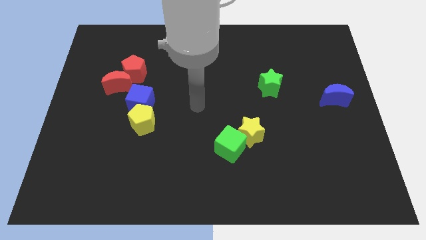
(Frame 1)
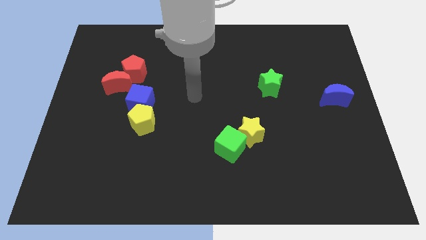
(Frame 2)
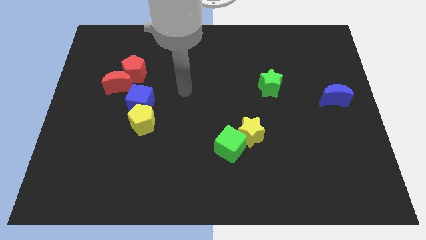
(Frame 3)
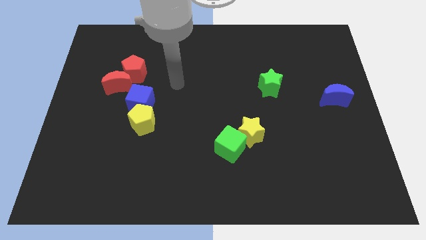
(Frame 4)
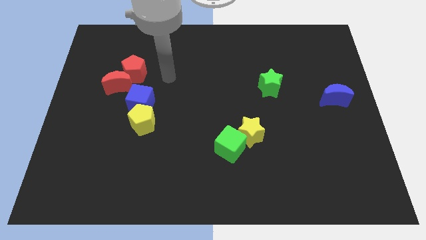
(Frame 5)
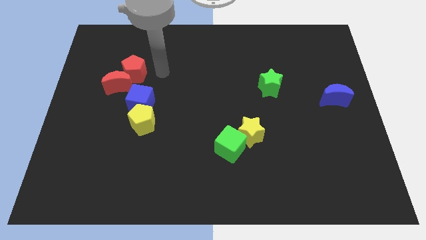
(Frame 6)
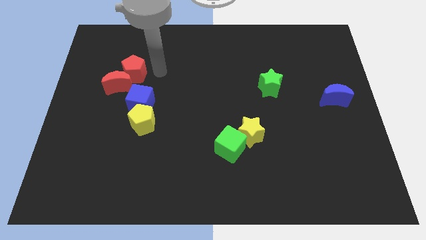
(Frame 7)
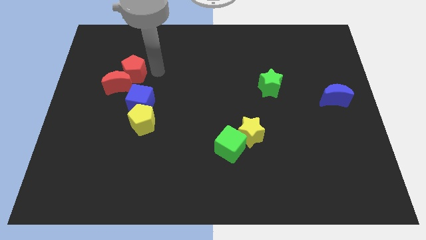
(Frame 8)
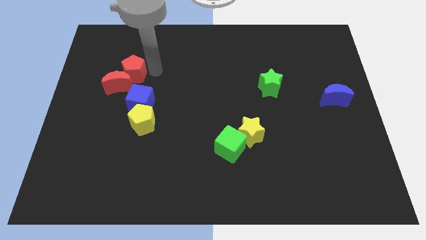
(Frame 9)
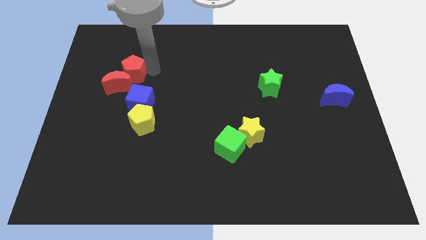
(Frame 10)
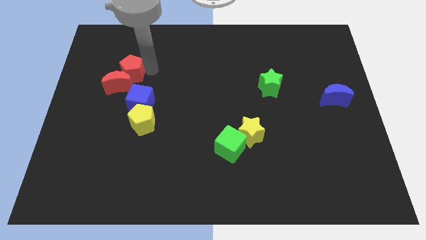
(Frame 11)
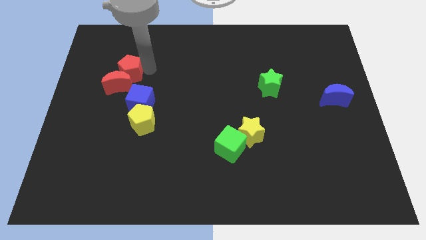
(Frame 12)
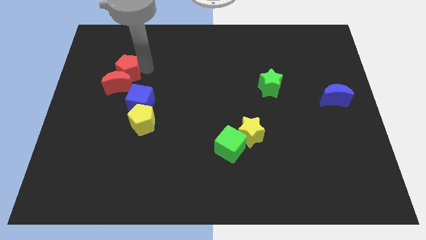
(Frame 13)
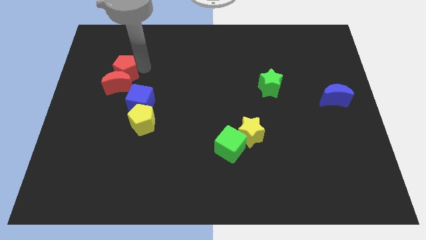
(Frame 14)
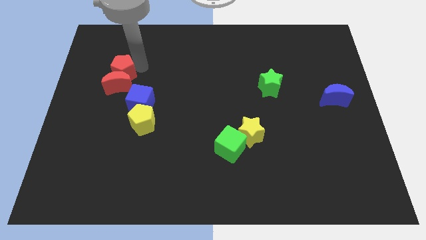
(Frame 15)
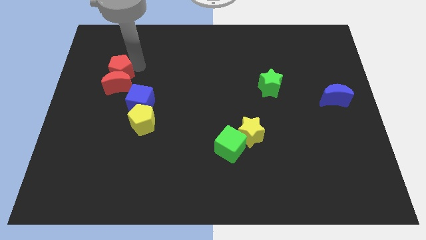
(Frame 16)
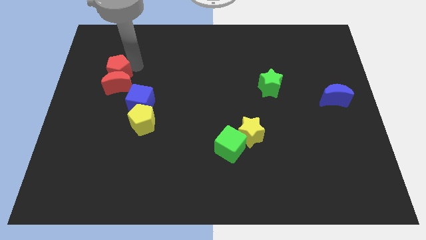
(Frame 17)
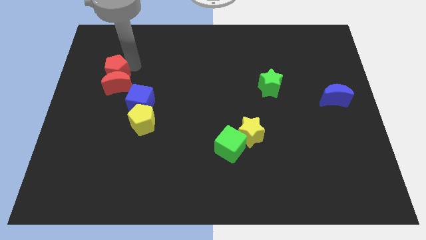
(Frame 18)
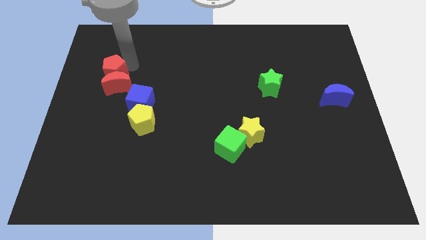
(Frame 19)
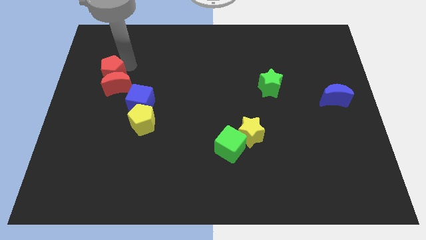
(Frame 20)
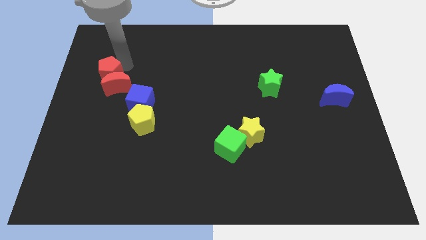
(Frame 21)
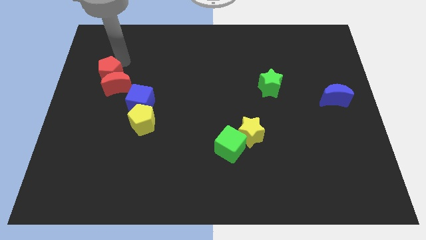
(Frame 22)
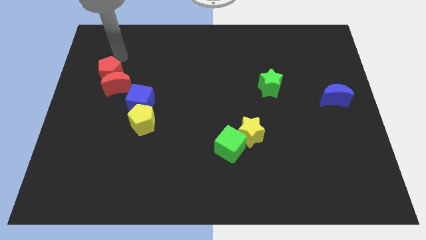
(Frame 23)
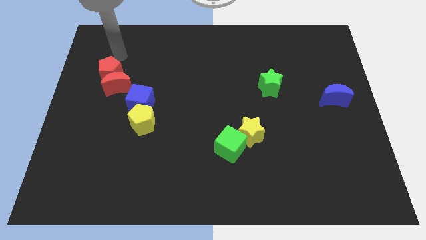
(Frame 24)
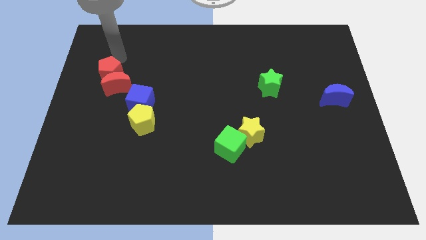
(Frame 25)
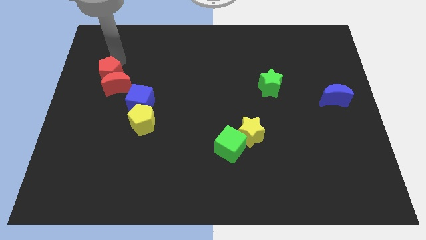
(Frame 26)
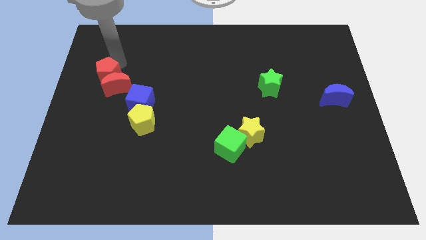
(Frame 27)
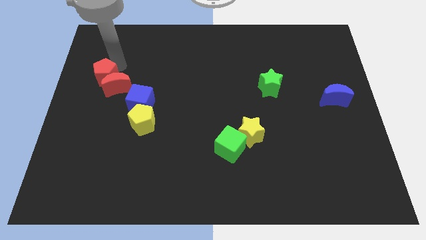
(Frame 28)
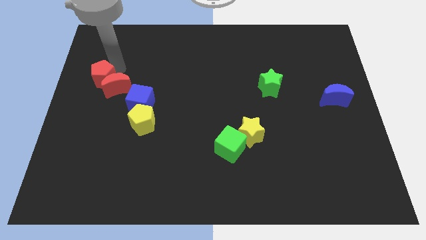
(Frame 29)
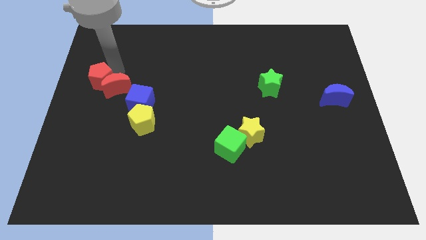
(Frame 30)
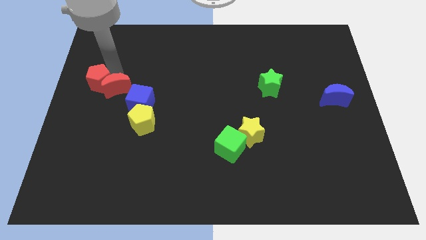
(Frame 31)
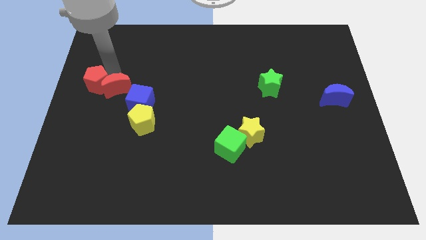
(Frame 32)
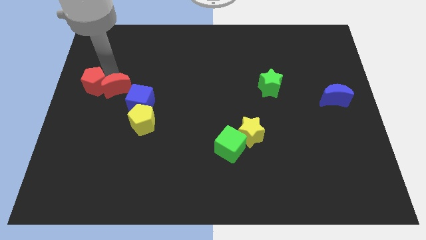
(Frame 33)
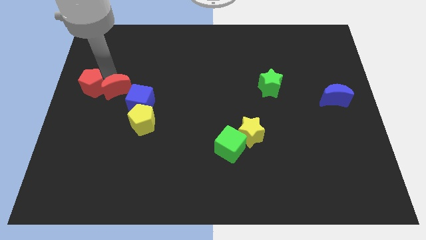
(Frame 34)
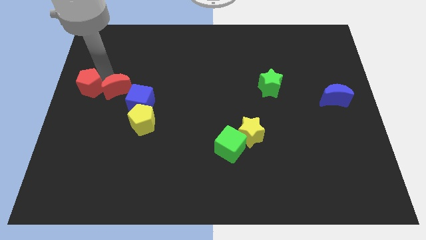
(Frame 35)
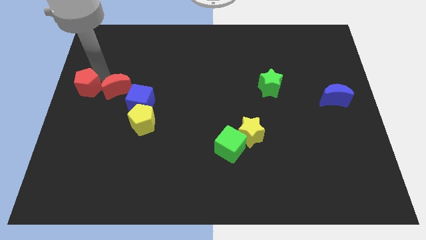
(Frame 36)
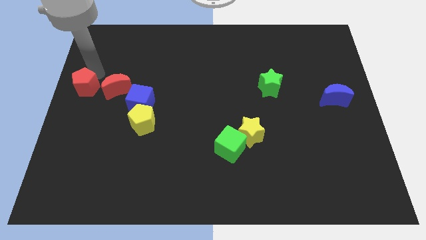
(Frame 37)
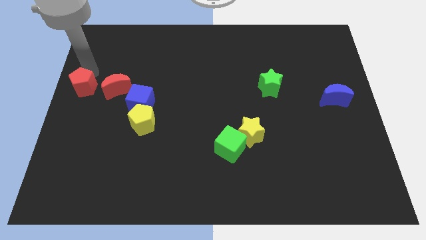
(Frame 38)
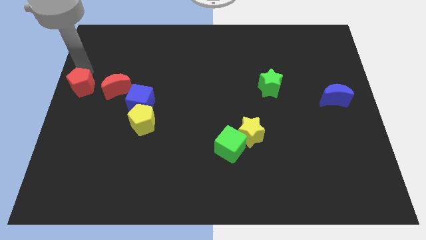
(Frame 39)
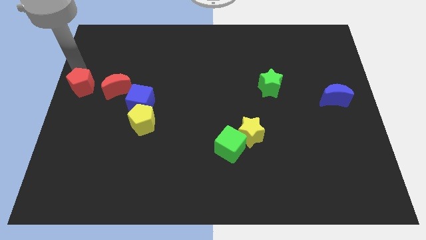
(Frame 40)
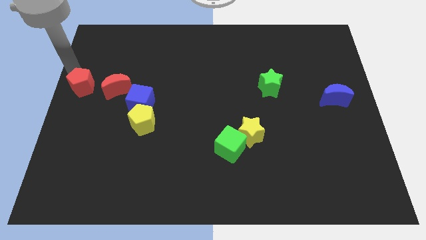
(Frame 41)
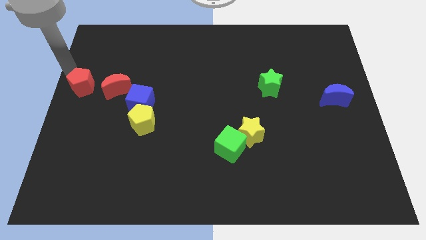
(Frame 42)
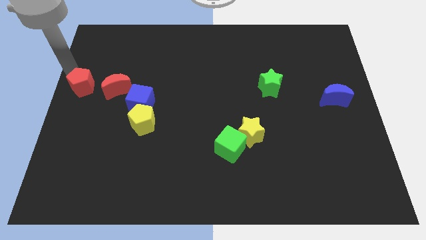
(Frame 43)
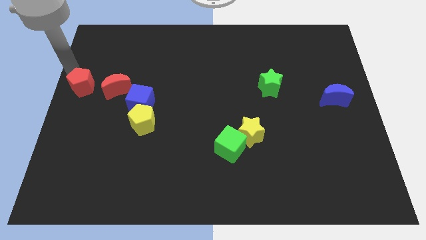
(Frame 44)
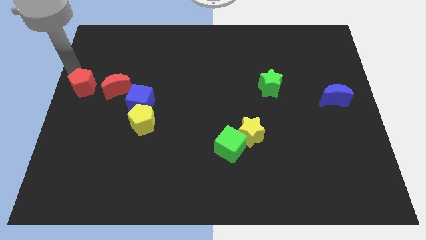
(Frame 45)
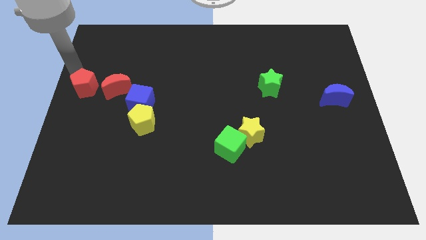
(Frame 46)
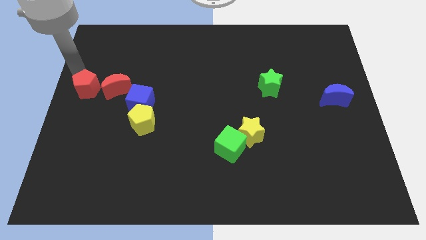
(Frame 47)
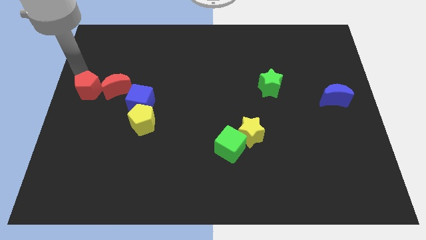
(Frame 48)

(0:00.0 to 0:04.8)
put the red pentagon just left of the blue cube

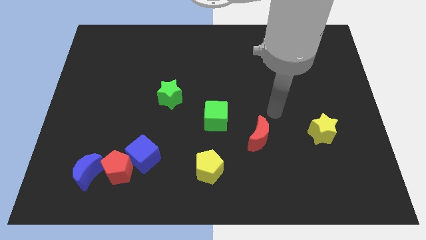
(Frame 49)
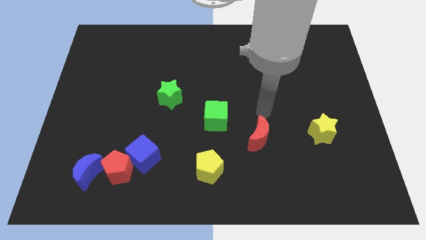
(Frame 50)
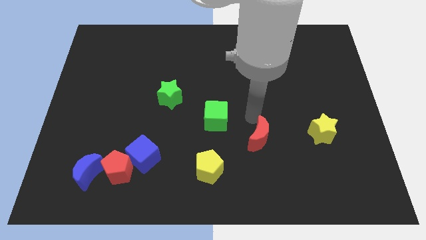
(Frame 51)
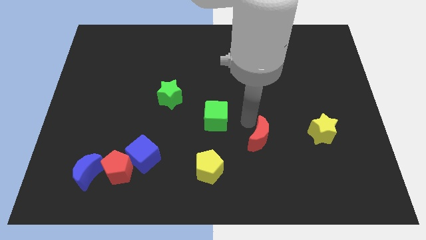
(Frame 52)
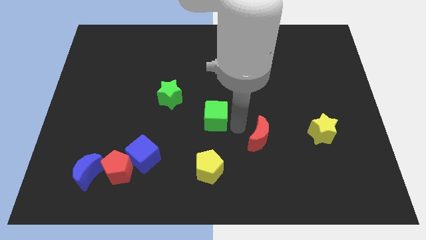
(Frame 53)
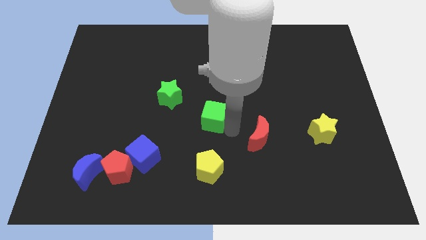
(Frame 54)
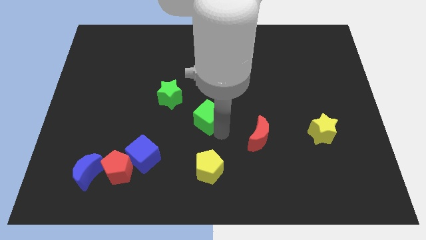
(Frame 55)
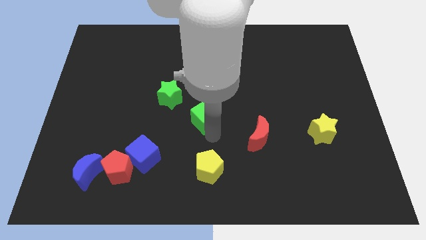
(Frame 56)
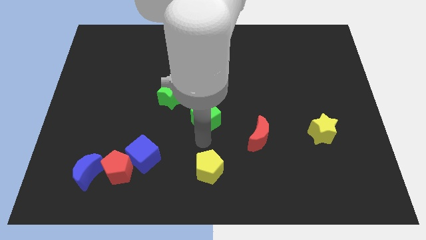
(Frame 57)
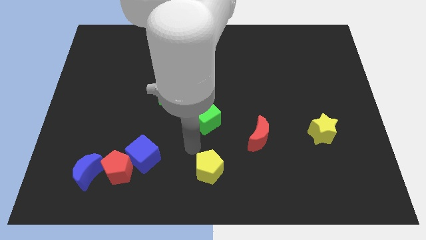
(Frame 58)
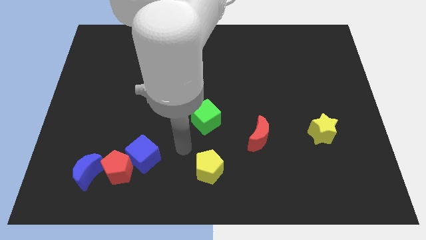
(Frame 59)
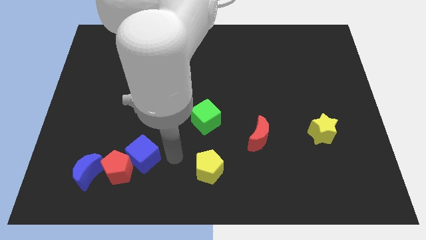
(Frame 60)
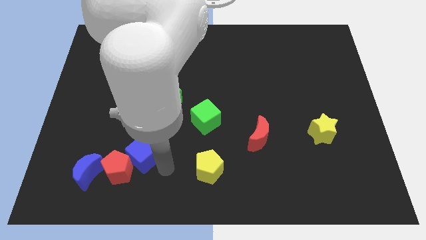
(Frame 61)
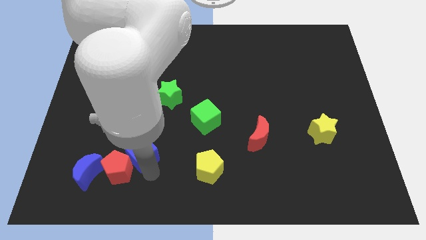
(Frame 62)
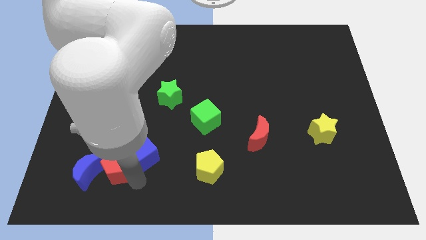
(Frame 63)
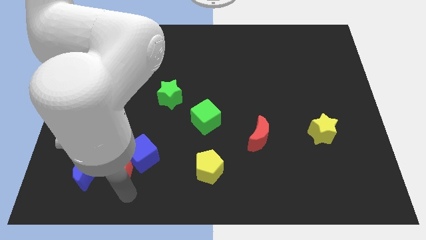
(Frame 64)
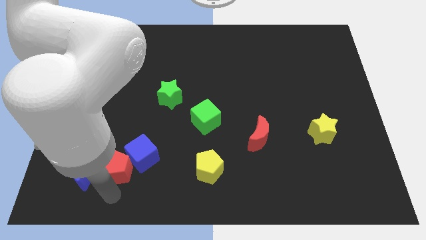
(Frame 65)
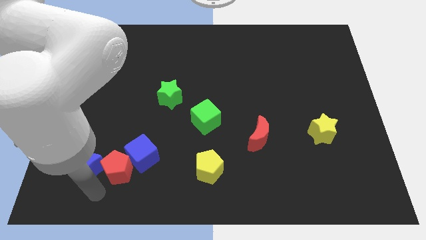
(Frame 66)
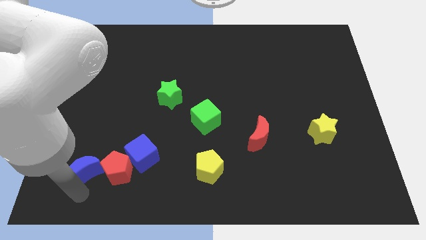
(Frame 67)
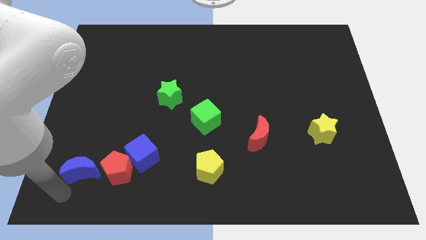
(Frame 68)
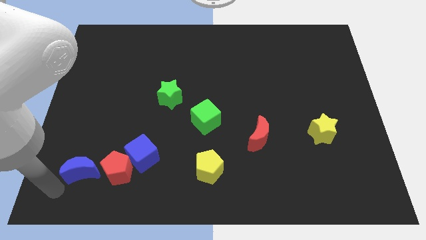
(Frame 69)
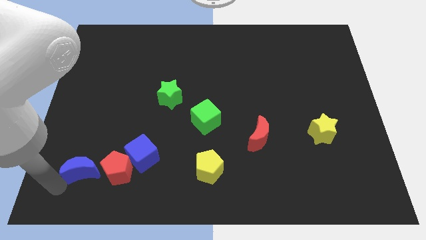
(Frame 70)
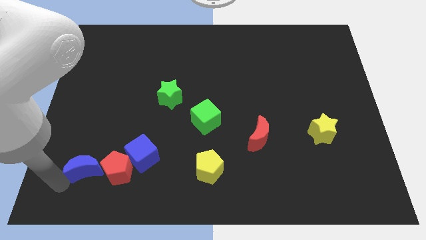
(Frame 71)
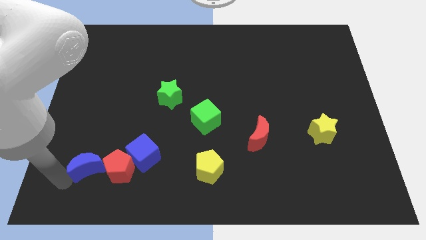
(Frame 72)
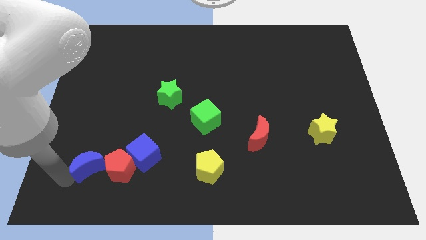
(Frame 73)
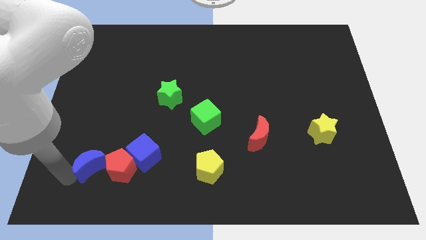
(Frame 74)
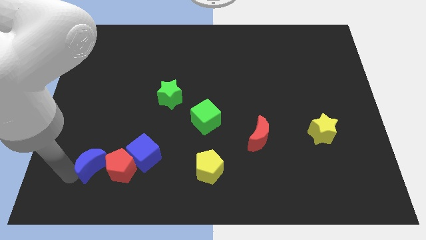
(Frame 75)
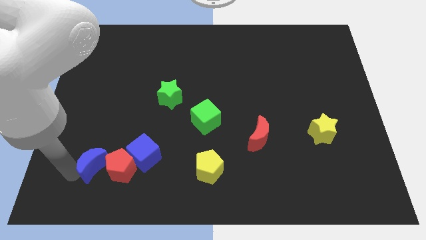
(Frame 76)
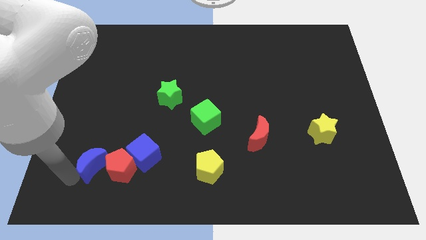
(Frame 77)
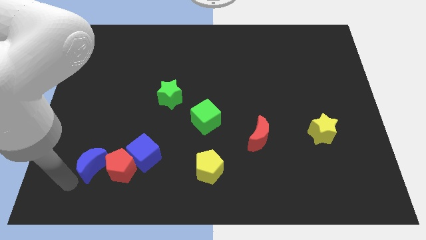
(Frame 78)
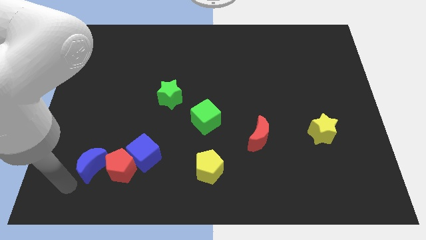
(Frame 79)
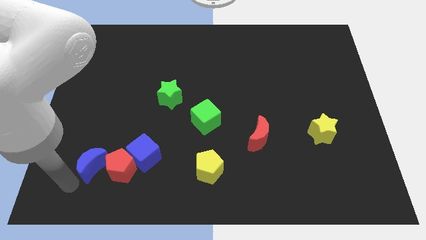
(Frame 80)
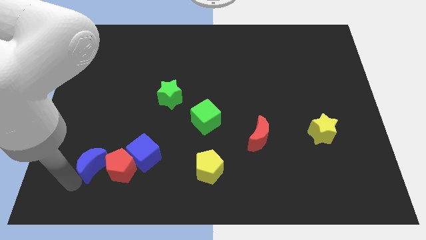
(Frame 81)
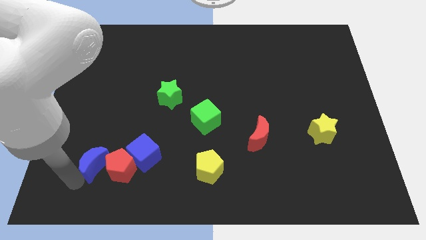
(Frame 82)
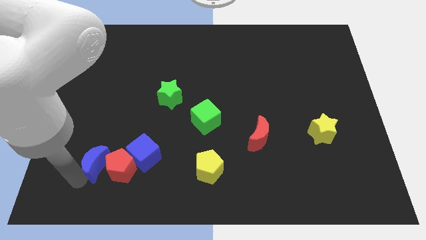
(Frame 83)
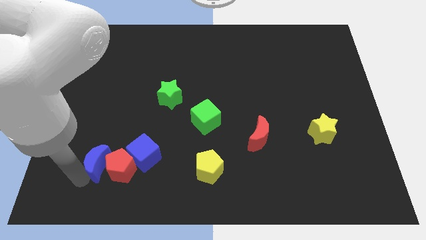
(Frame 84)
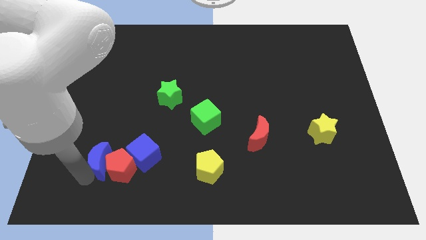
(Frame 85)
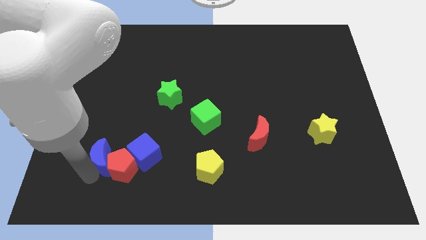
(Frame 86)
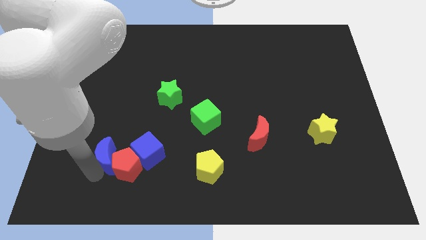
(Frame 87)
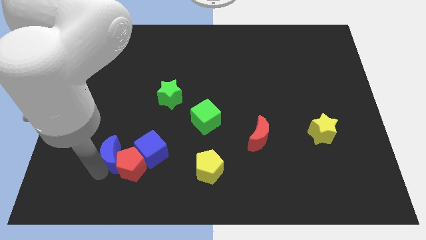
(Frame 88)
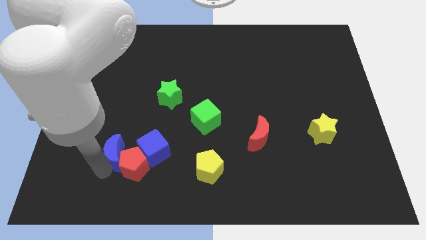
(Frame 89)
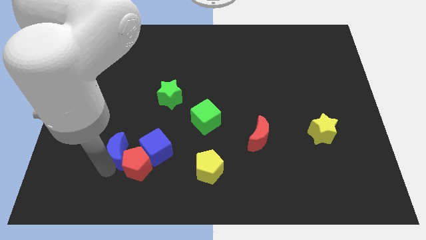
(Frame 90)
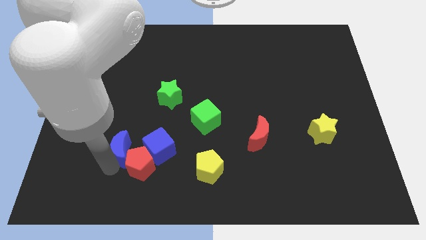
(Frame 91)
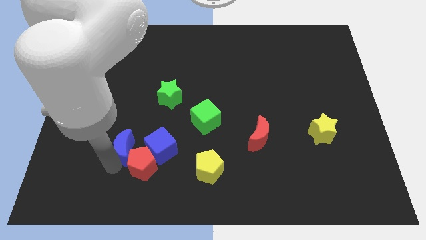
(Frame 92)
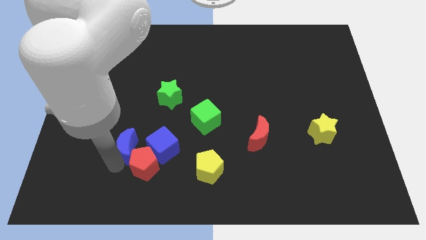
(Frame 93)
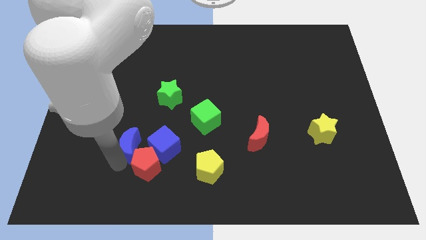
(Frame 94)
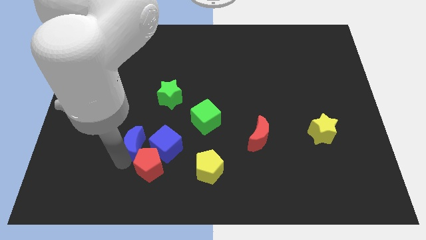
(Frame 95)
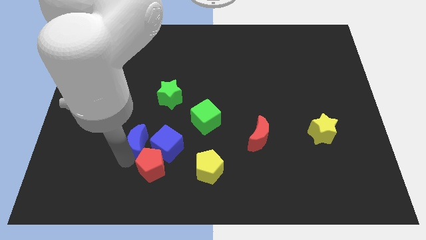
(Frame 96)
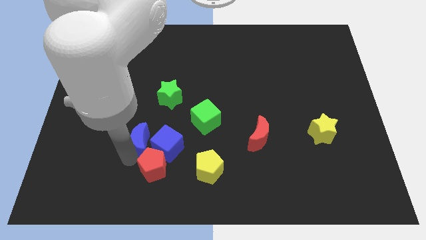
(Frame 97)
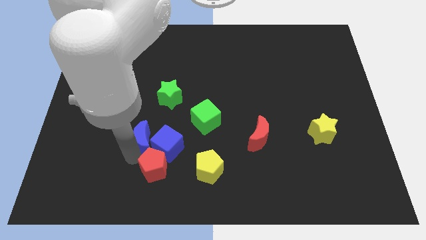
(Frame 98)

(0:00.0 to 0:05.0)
push the blue moon to the bottom of the green star
